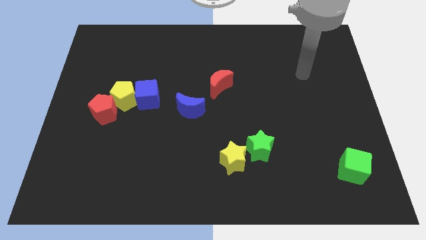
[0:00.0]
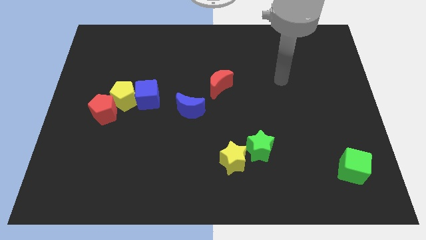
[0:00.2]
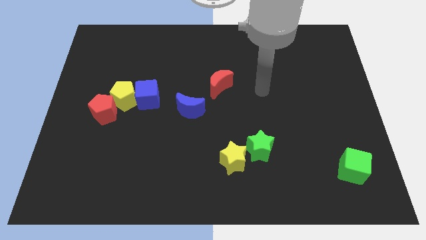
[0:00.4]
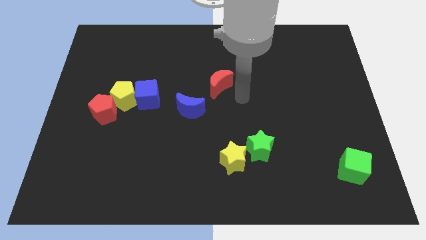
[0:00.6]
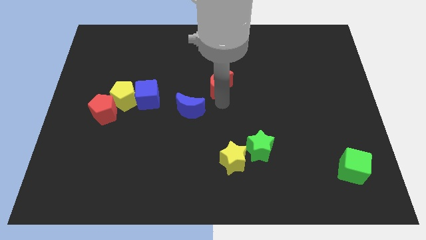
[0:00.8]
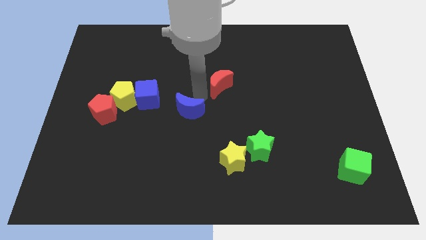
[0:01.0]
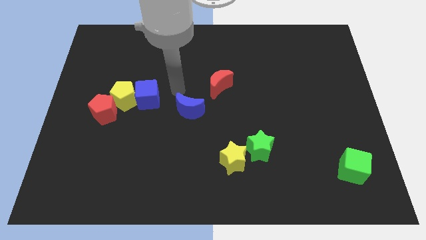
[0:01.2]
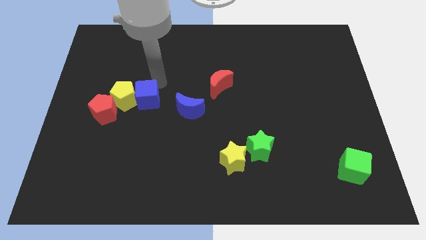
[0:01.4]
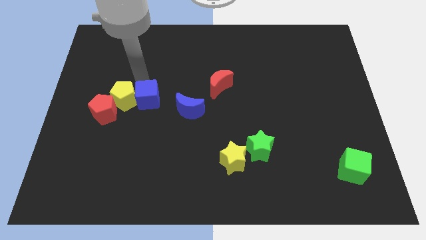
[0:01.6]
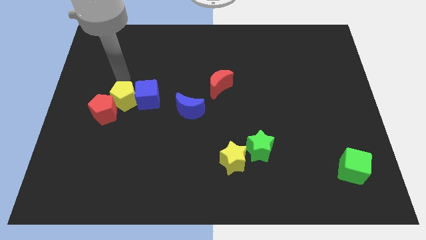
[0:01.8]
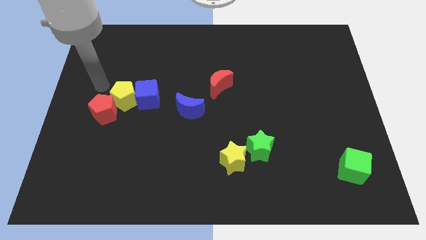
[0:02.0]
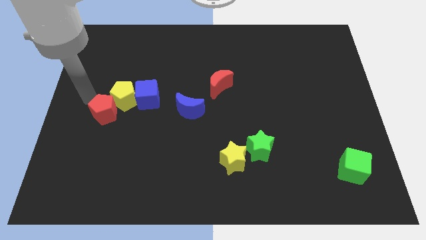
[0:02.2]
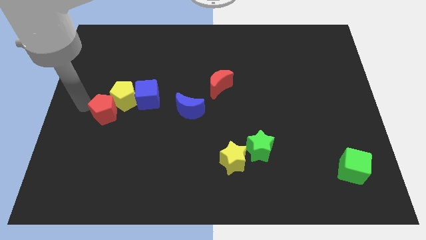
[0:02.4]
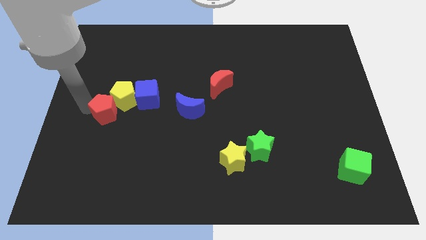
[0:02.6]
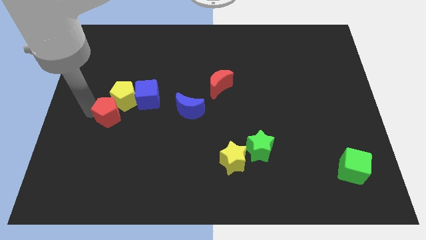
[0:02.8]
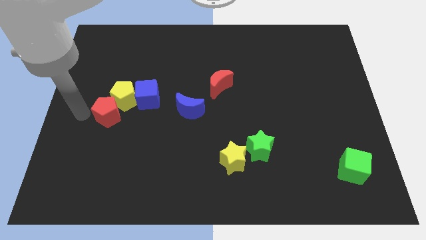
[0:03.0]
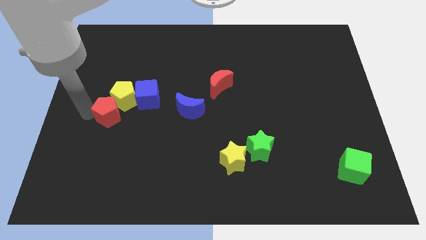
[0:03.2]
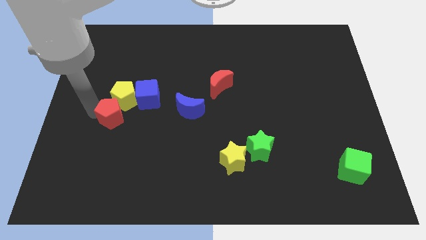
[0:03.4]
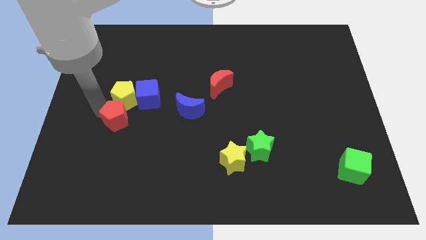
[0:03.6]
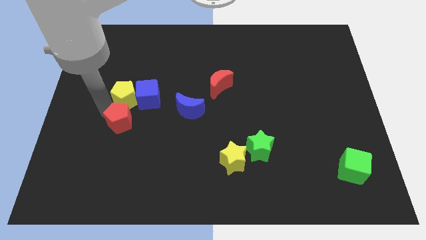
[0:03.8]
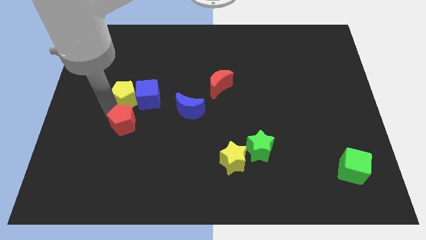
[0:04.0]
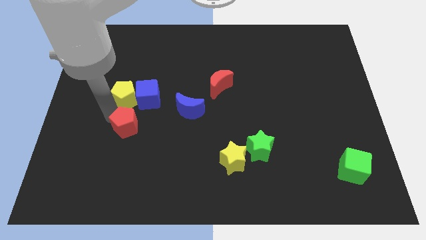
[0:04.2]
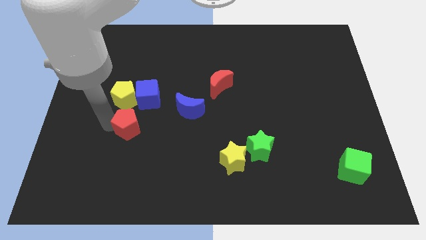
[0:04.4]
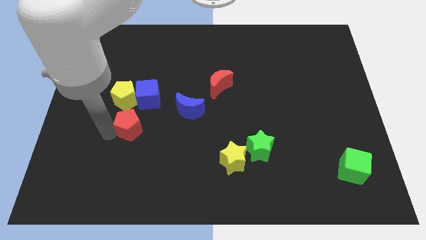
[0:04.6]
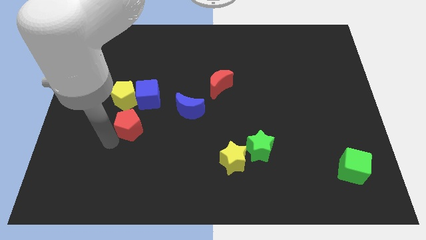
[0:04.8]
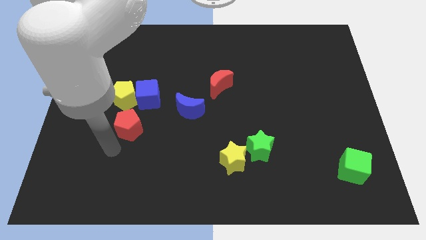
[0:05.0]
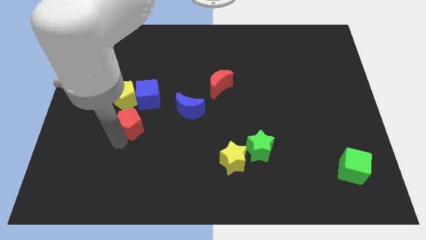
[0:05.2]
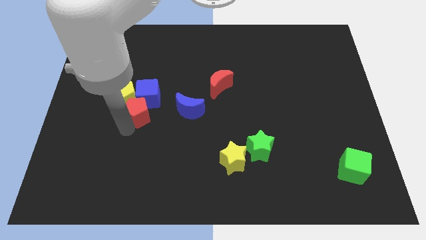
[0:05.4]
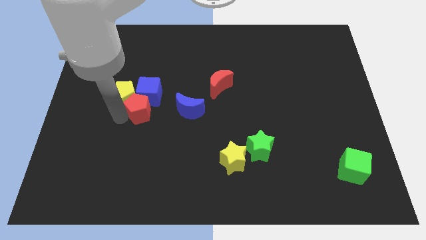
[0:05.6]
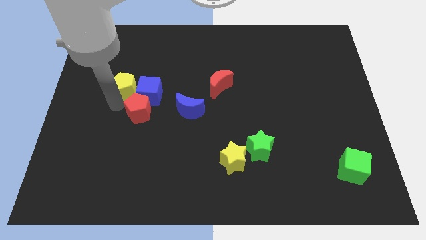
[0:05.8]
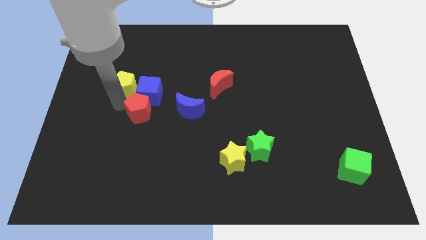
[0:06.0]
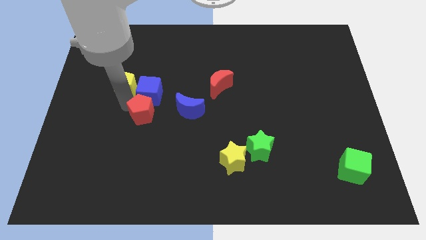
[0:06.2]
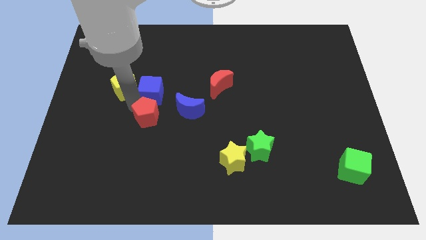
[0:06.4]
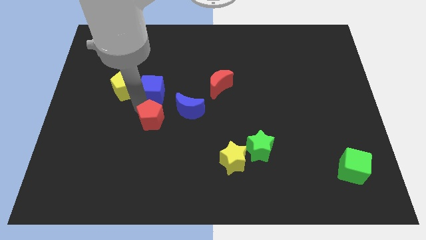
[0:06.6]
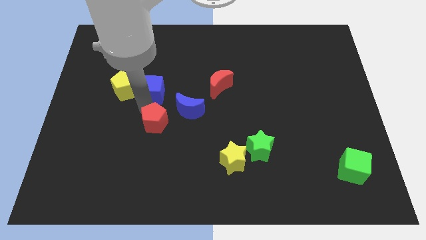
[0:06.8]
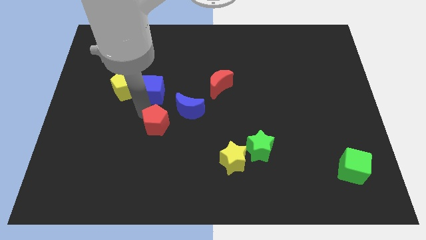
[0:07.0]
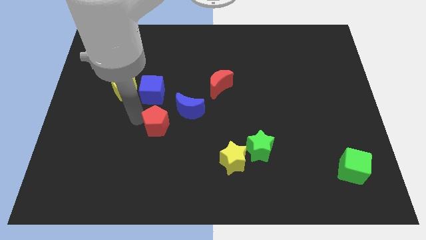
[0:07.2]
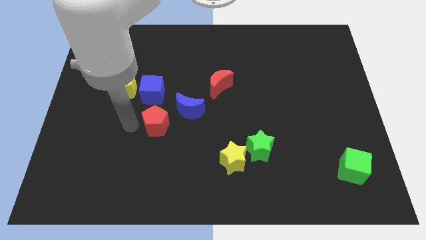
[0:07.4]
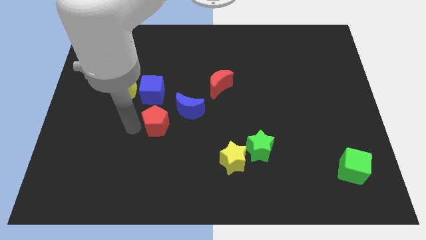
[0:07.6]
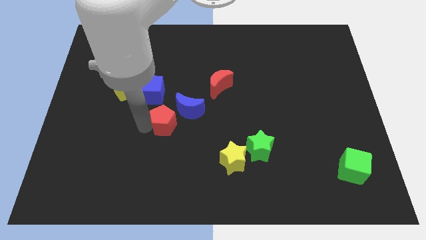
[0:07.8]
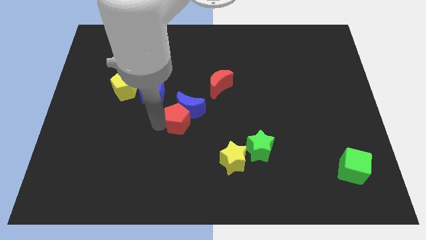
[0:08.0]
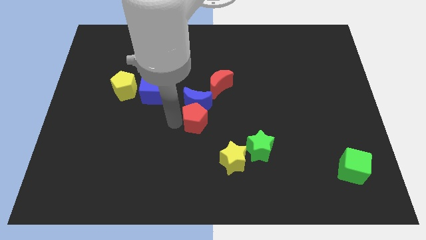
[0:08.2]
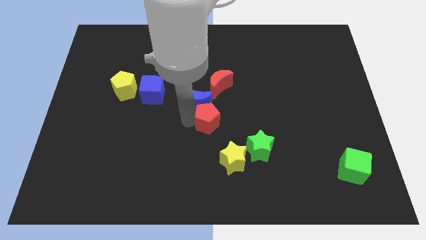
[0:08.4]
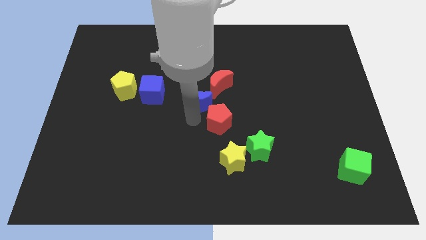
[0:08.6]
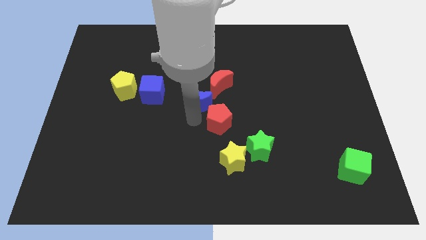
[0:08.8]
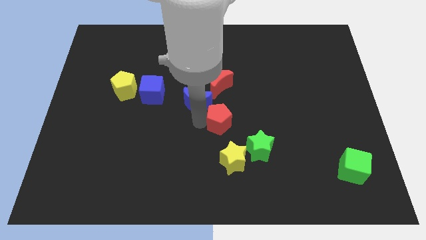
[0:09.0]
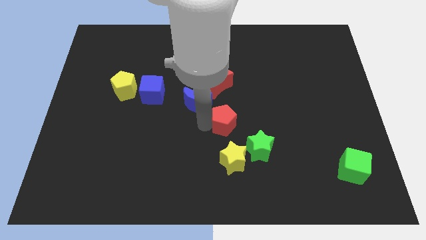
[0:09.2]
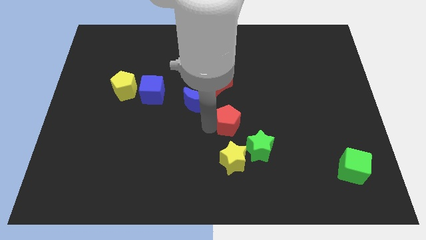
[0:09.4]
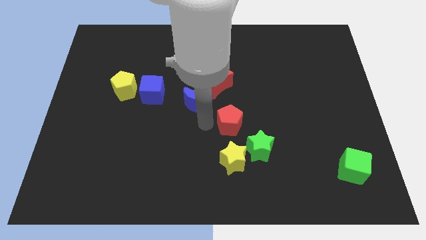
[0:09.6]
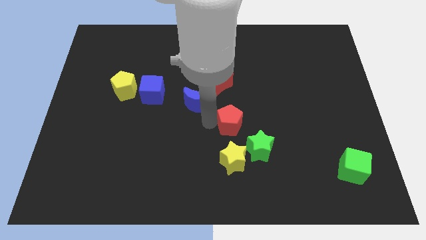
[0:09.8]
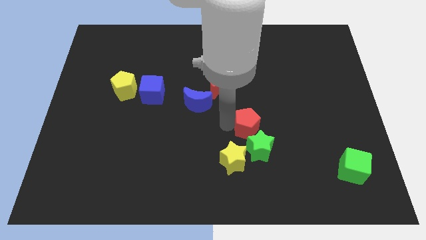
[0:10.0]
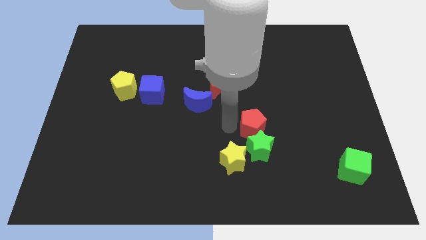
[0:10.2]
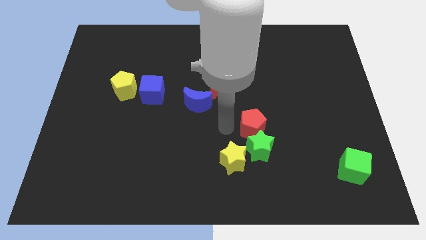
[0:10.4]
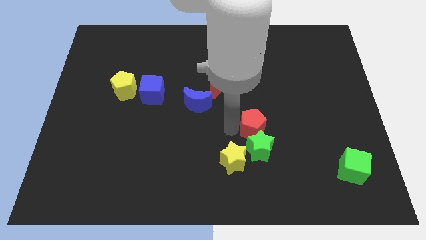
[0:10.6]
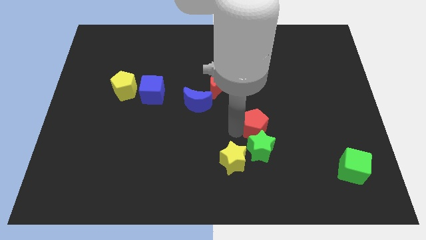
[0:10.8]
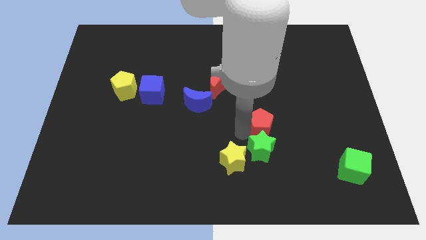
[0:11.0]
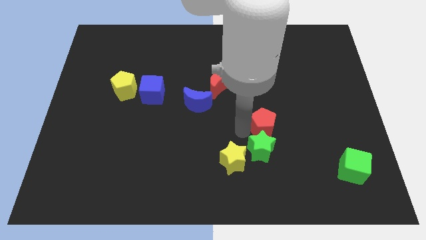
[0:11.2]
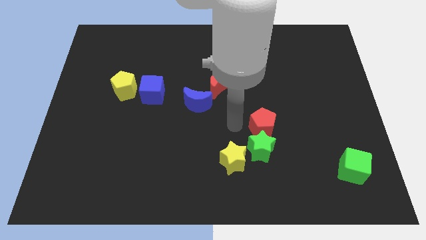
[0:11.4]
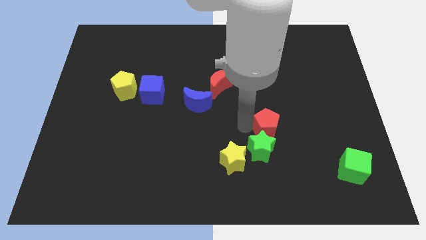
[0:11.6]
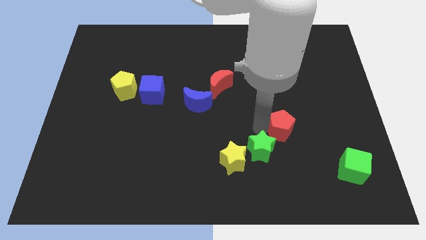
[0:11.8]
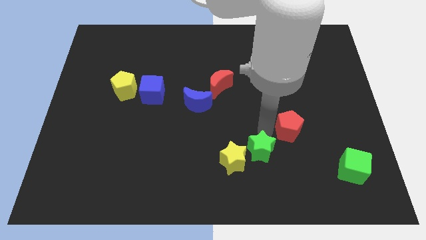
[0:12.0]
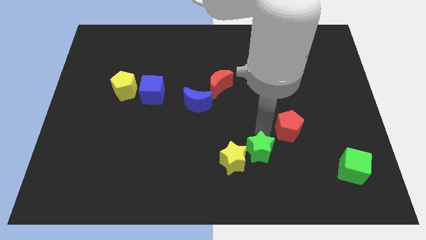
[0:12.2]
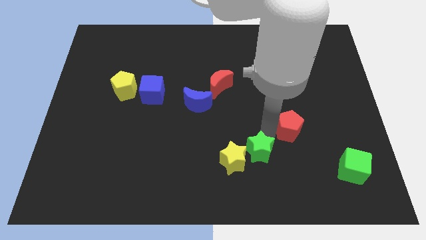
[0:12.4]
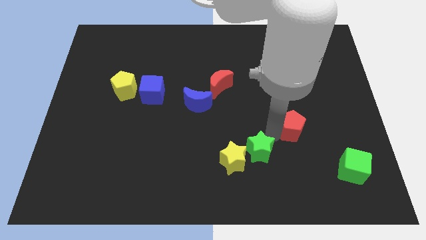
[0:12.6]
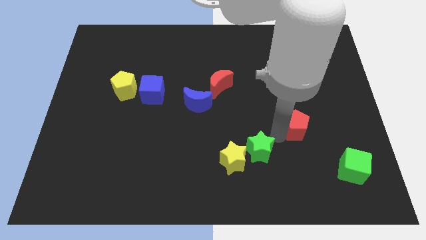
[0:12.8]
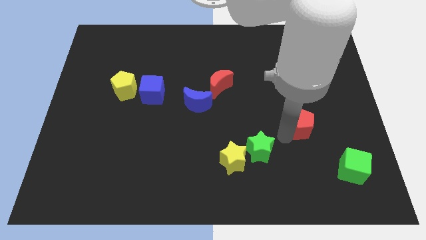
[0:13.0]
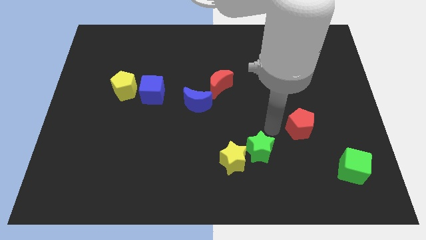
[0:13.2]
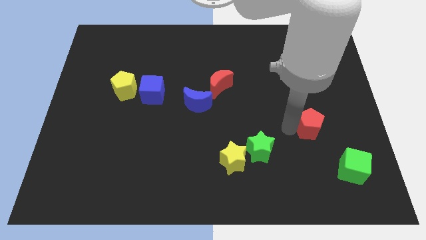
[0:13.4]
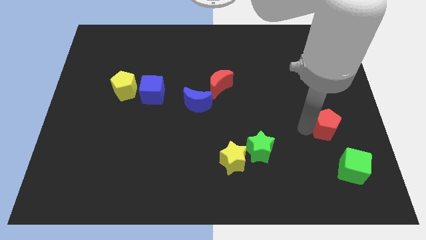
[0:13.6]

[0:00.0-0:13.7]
push the red pentagon to the top side of the green cube

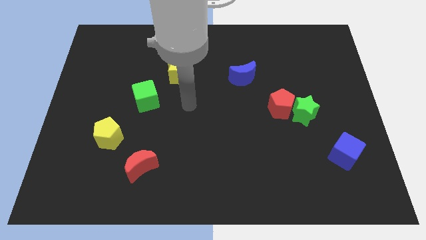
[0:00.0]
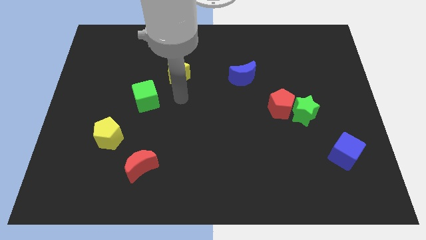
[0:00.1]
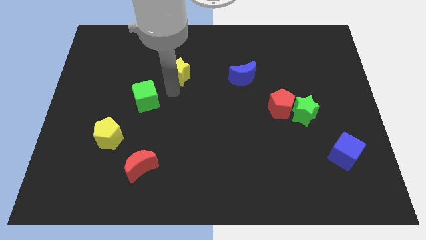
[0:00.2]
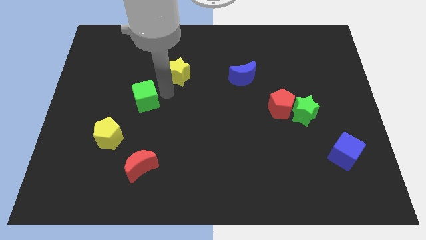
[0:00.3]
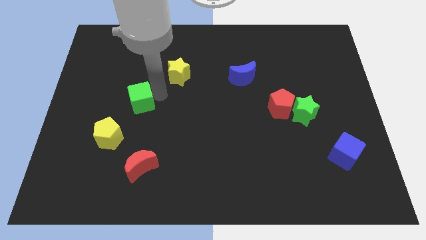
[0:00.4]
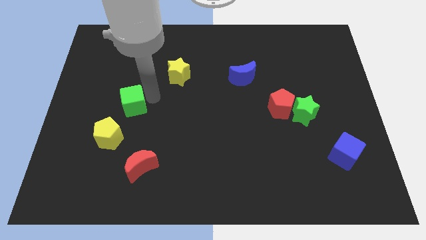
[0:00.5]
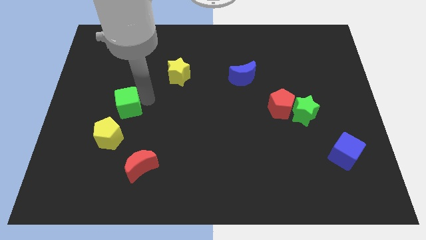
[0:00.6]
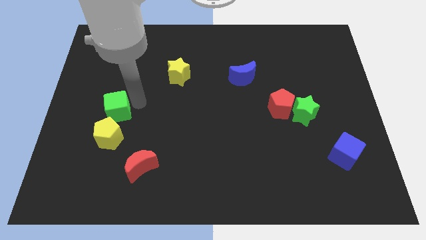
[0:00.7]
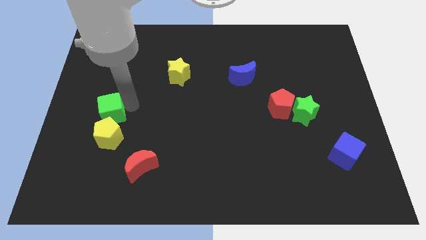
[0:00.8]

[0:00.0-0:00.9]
put the green cube to the top left side of the yellow pentagon
